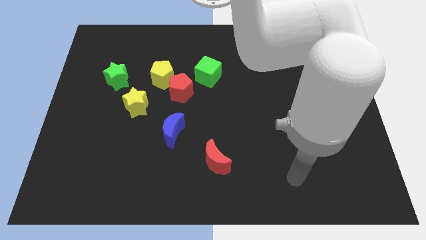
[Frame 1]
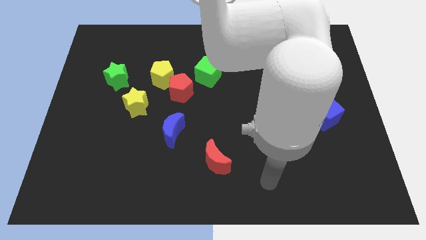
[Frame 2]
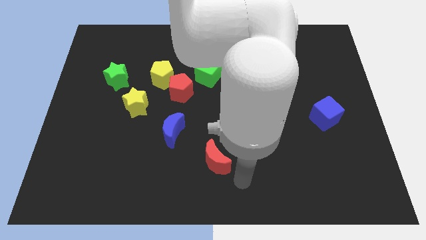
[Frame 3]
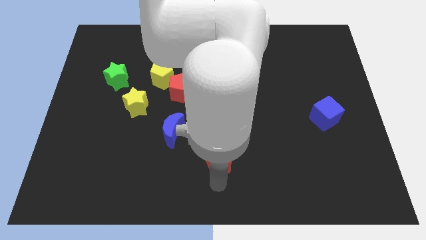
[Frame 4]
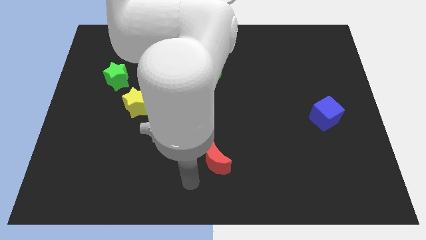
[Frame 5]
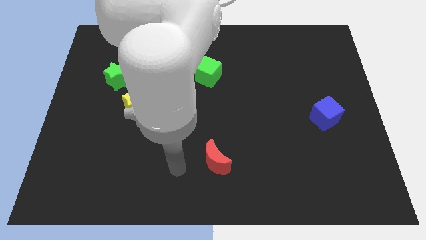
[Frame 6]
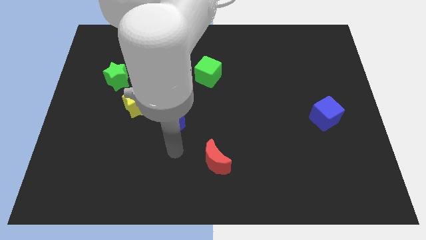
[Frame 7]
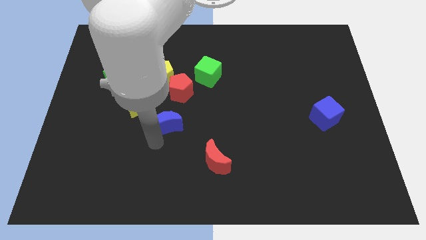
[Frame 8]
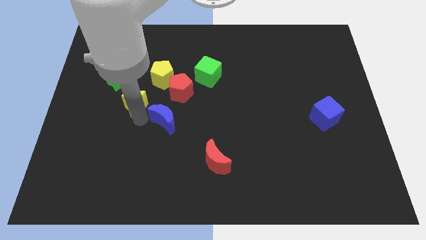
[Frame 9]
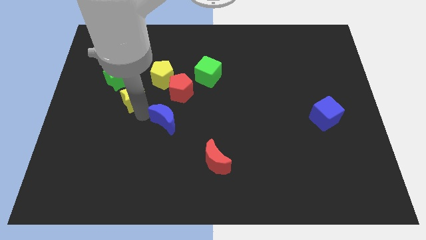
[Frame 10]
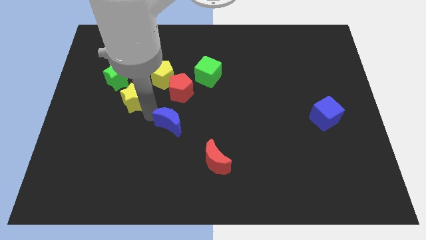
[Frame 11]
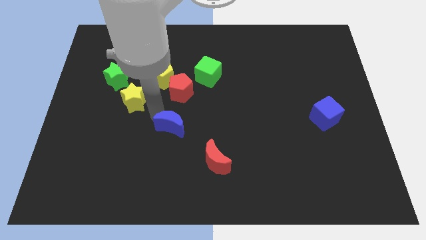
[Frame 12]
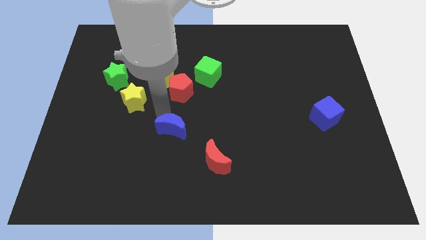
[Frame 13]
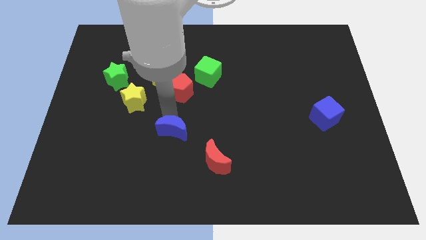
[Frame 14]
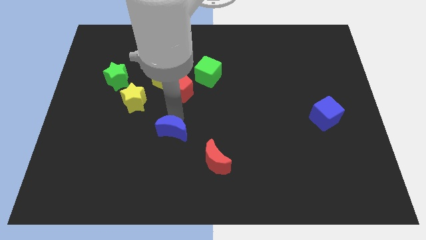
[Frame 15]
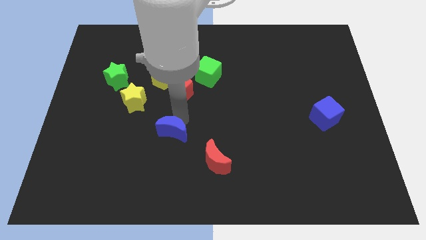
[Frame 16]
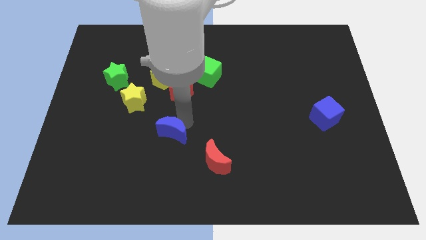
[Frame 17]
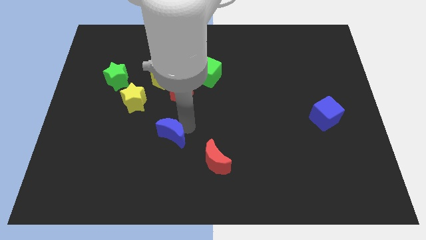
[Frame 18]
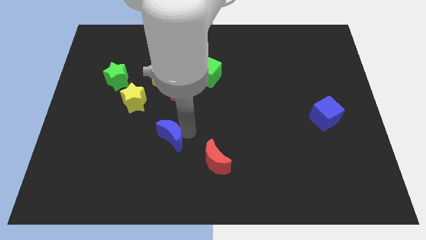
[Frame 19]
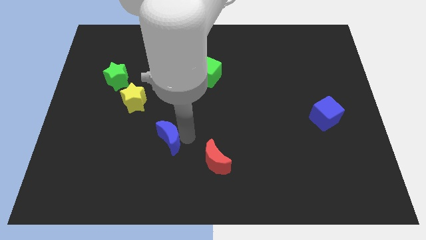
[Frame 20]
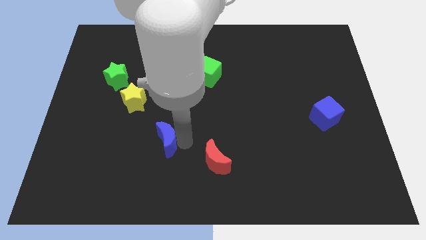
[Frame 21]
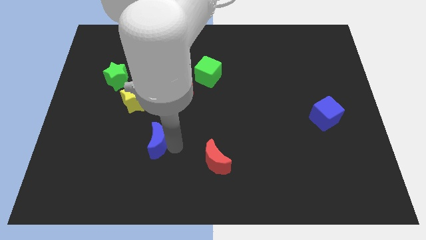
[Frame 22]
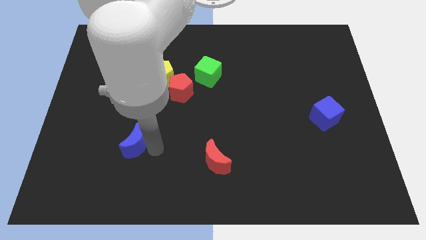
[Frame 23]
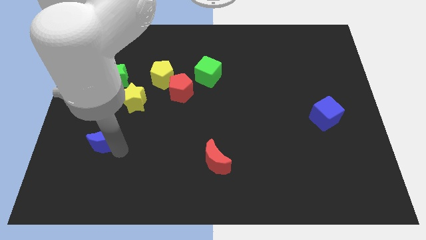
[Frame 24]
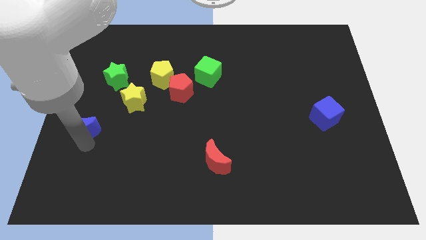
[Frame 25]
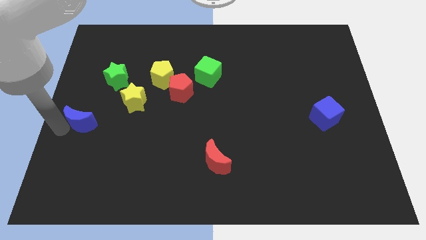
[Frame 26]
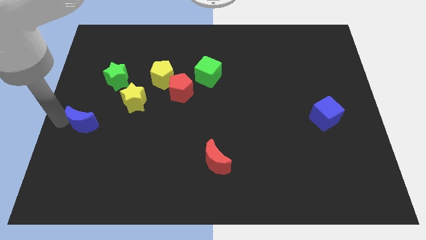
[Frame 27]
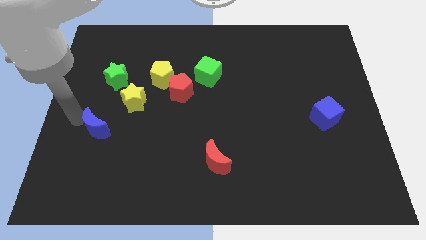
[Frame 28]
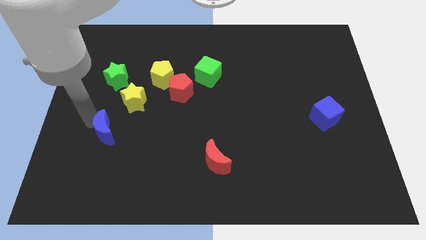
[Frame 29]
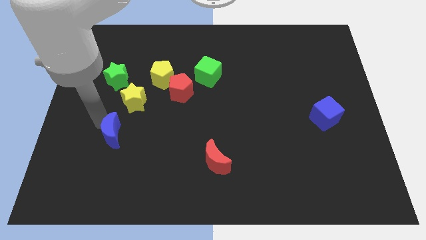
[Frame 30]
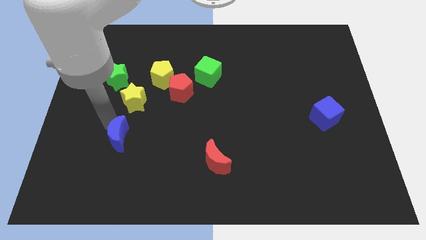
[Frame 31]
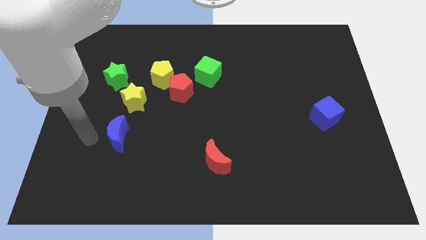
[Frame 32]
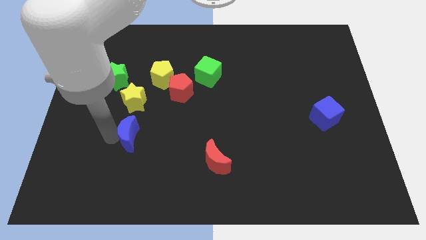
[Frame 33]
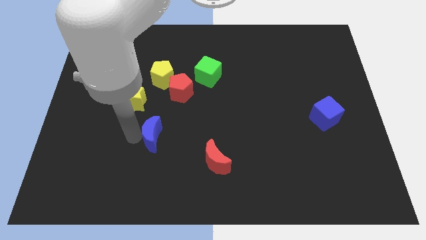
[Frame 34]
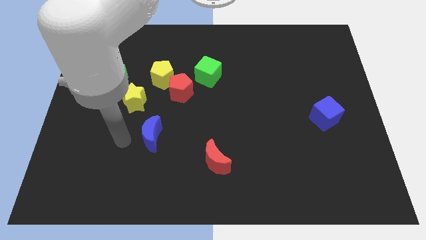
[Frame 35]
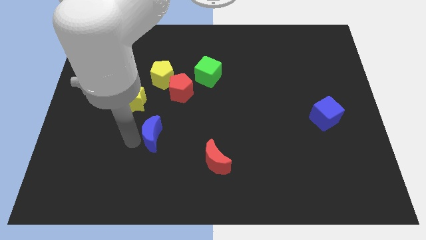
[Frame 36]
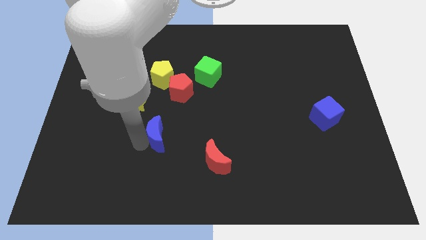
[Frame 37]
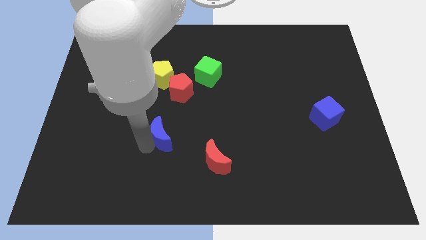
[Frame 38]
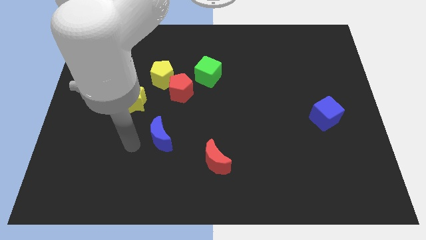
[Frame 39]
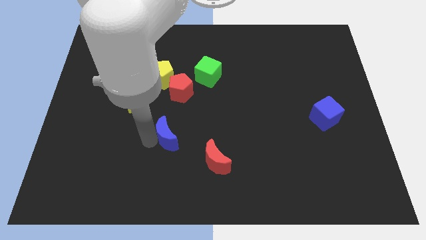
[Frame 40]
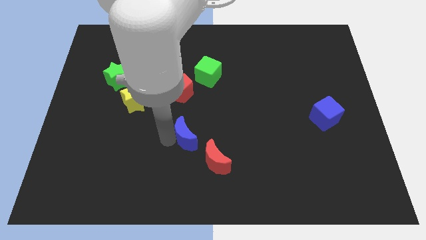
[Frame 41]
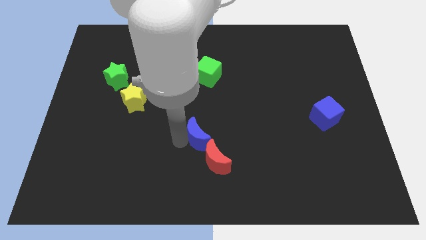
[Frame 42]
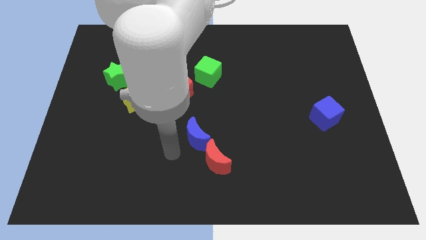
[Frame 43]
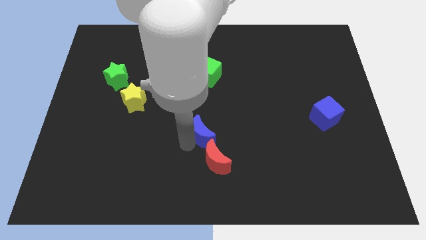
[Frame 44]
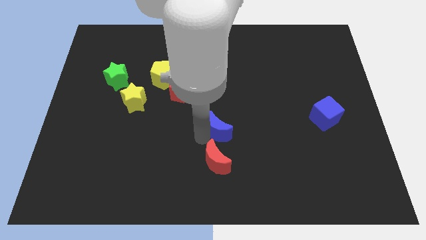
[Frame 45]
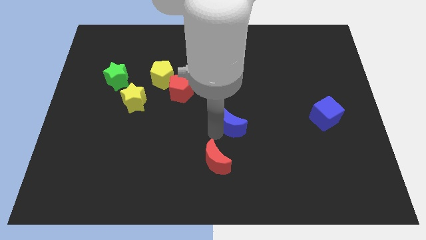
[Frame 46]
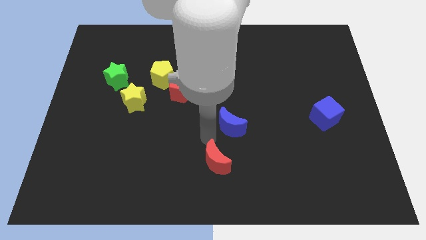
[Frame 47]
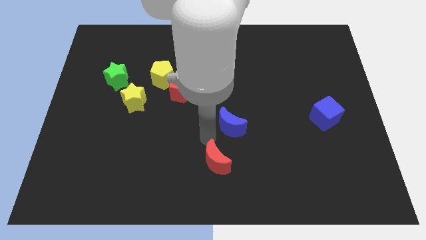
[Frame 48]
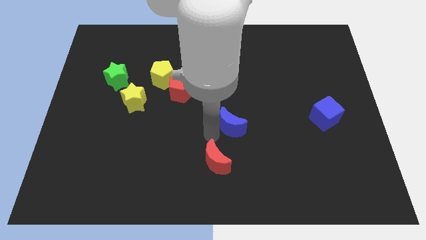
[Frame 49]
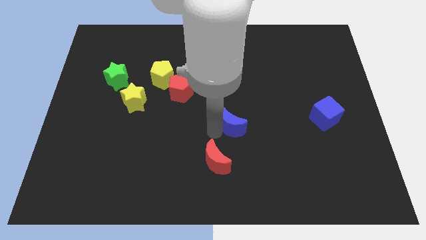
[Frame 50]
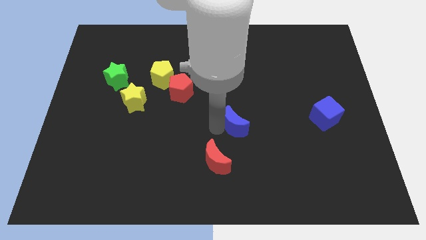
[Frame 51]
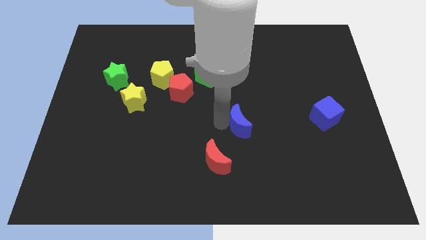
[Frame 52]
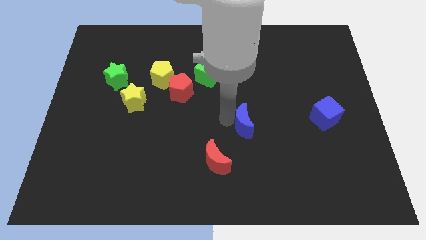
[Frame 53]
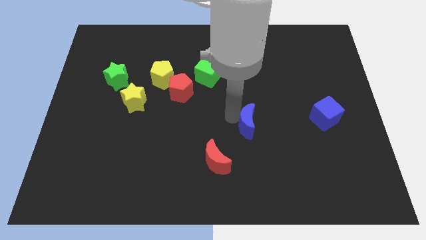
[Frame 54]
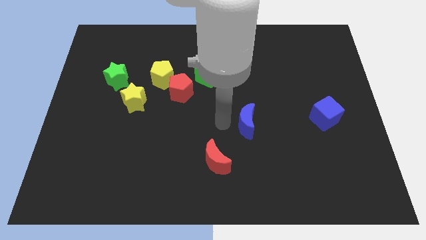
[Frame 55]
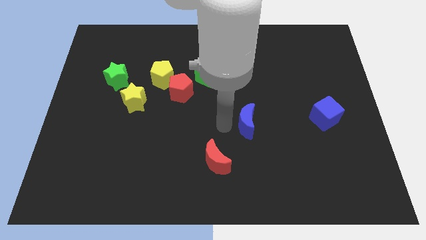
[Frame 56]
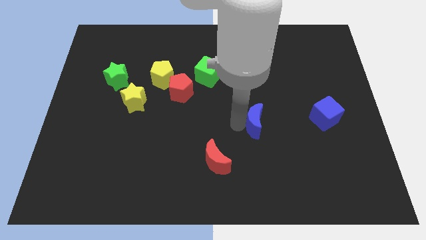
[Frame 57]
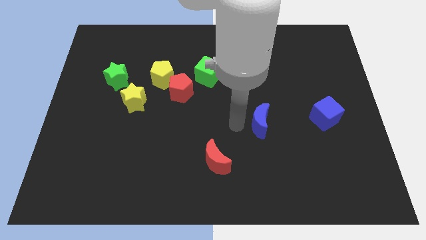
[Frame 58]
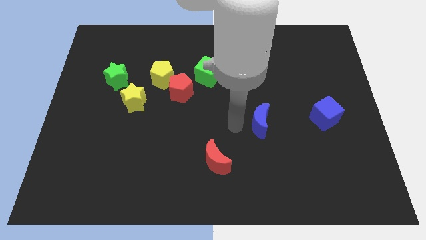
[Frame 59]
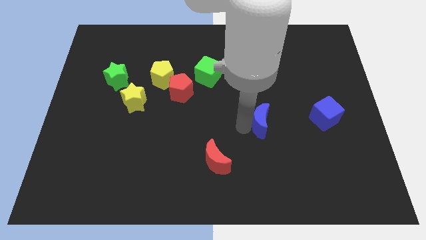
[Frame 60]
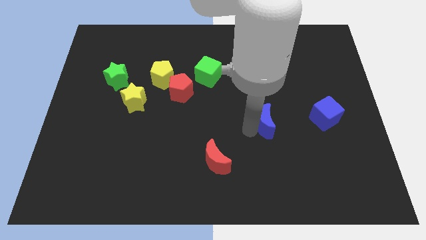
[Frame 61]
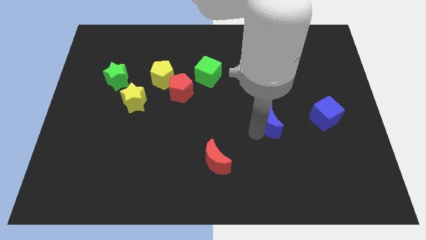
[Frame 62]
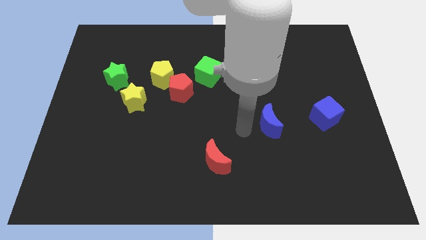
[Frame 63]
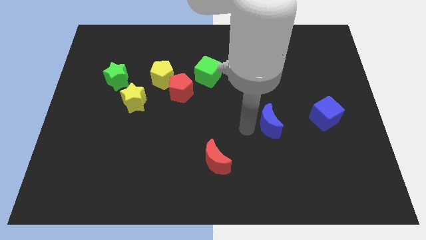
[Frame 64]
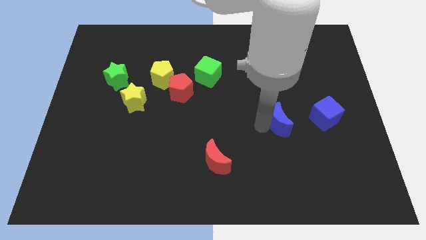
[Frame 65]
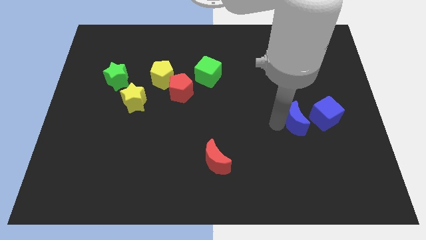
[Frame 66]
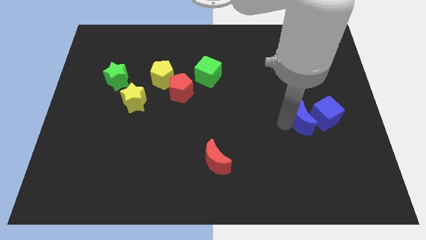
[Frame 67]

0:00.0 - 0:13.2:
put the blue moon towards the blue cube

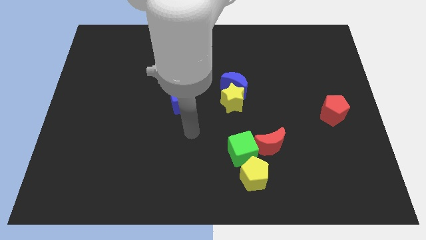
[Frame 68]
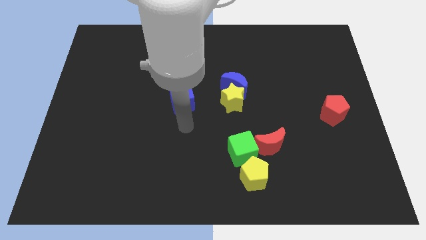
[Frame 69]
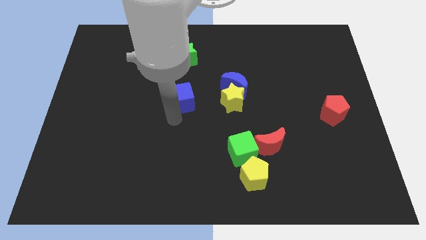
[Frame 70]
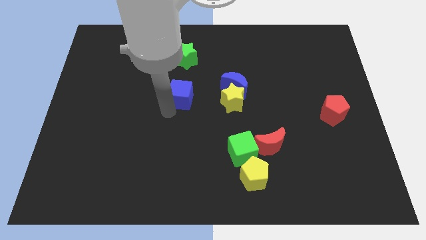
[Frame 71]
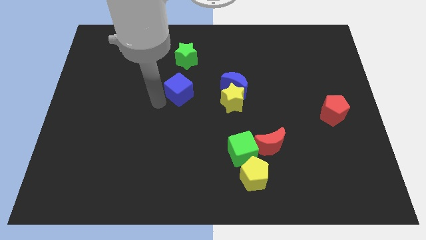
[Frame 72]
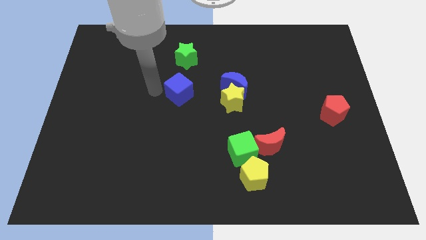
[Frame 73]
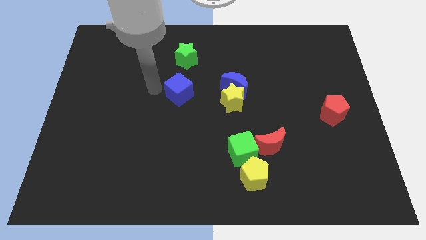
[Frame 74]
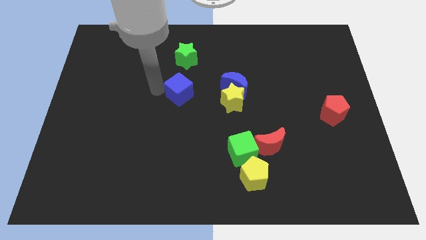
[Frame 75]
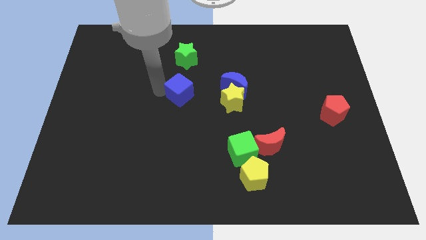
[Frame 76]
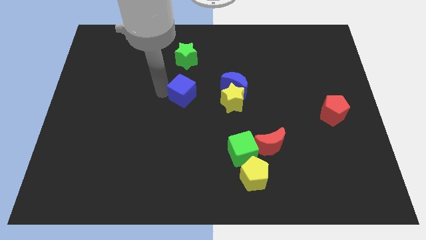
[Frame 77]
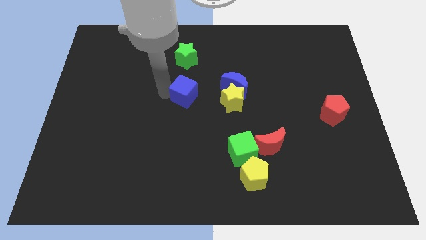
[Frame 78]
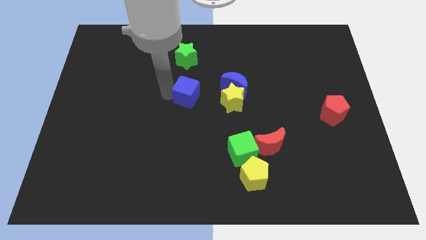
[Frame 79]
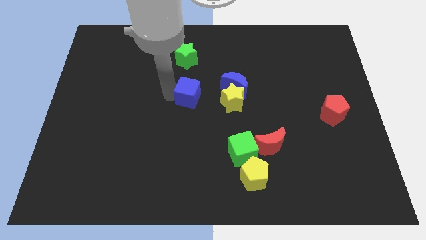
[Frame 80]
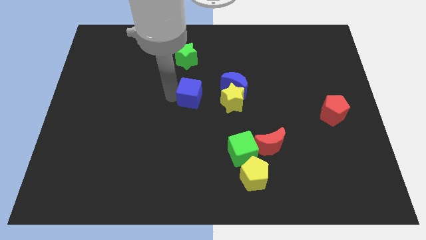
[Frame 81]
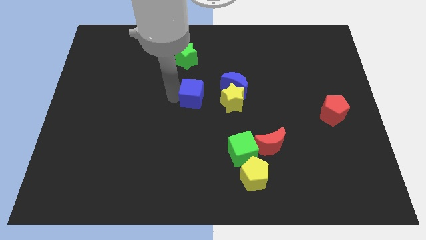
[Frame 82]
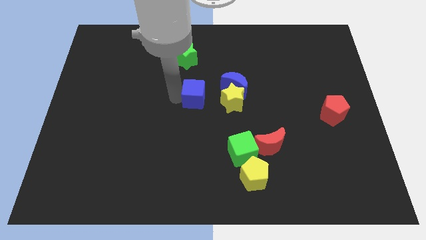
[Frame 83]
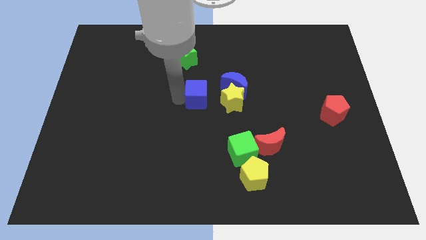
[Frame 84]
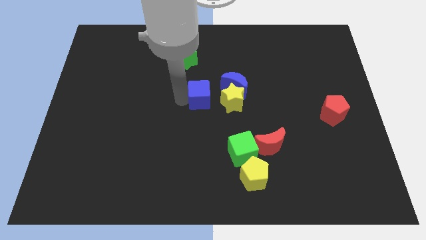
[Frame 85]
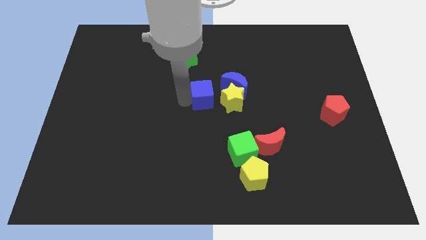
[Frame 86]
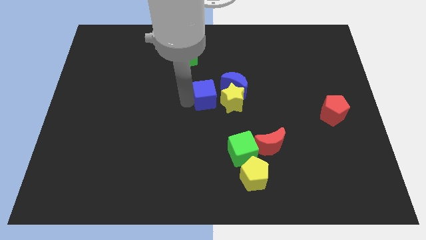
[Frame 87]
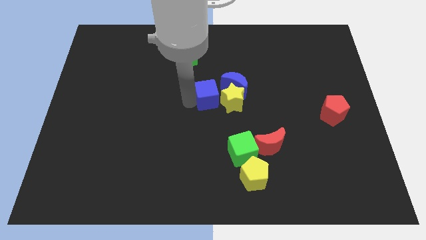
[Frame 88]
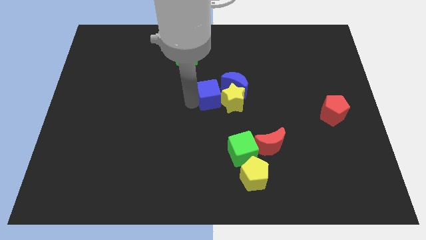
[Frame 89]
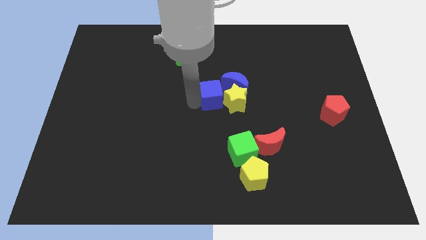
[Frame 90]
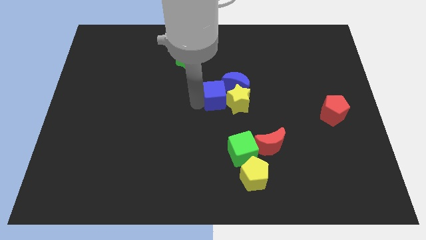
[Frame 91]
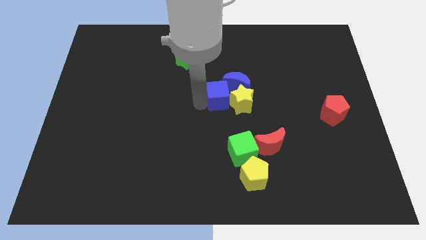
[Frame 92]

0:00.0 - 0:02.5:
put the blue cube towards the blue moon
